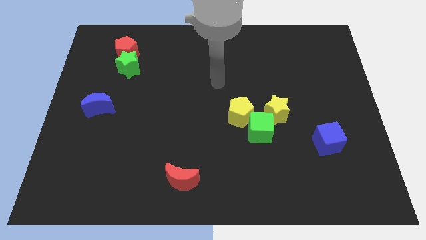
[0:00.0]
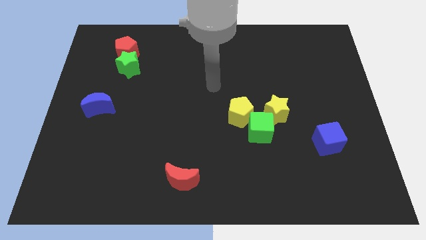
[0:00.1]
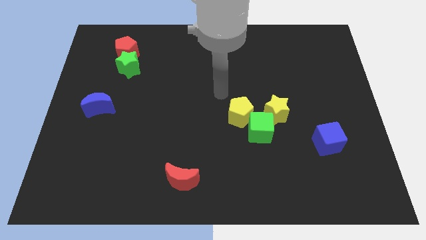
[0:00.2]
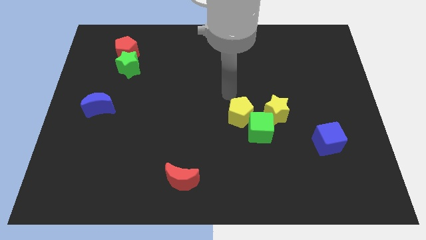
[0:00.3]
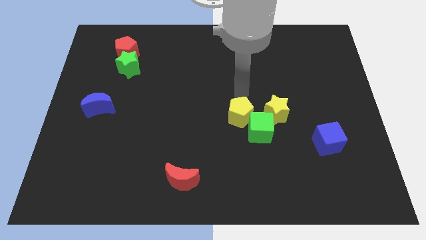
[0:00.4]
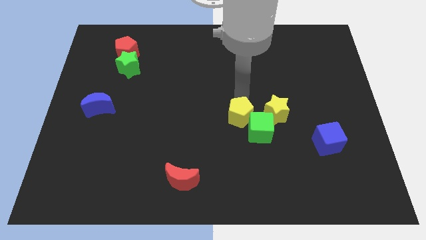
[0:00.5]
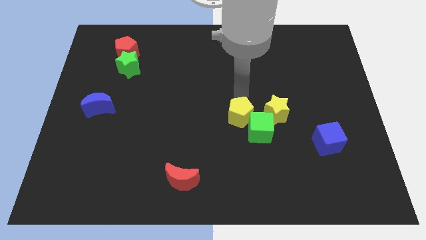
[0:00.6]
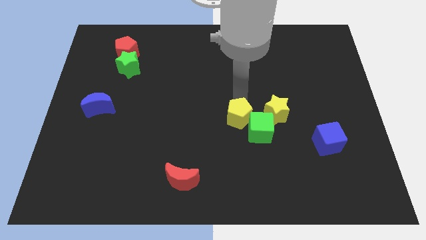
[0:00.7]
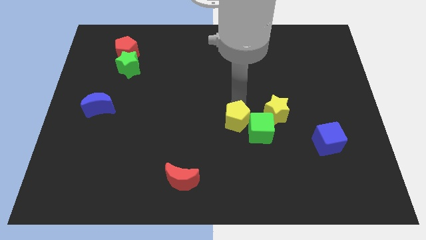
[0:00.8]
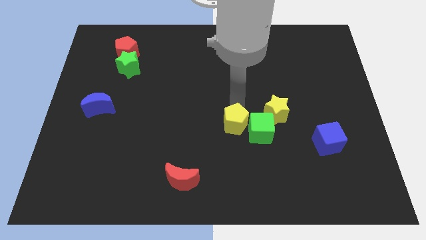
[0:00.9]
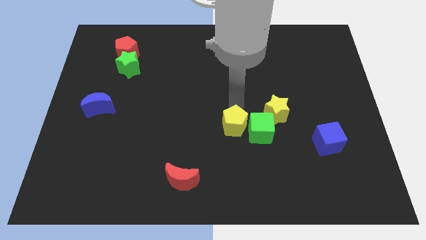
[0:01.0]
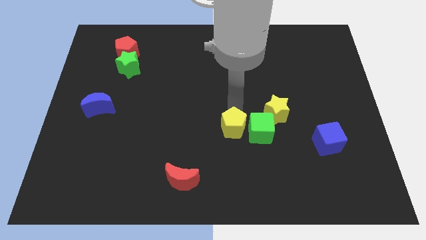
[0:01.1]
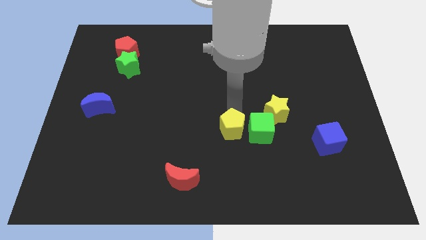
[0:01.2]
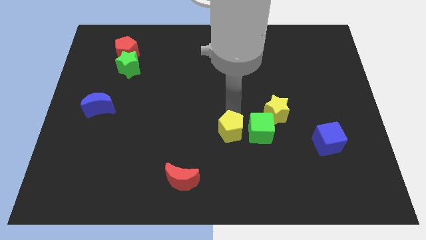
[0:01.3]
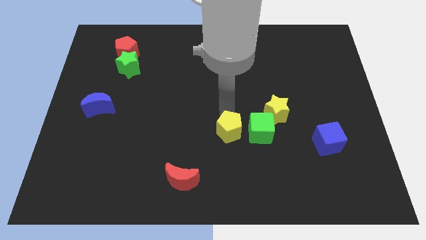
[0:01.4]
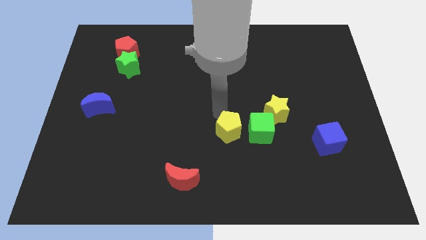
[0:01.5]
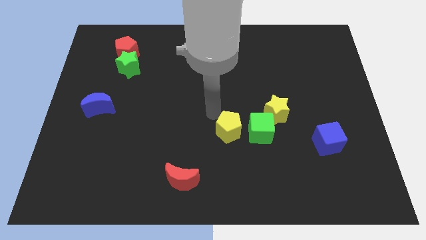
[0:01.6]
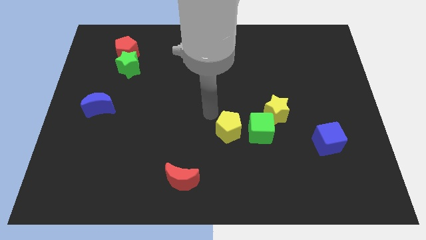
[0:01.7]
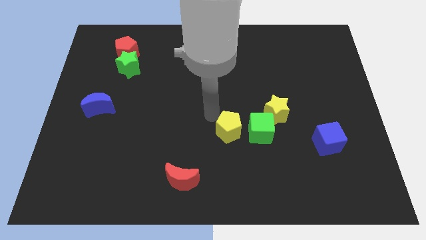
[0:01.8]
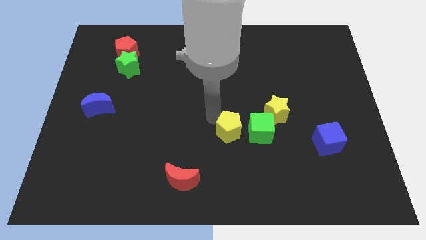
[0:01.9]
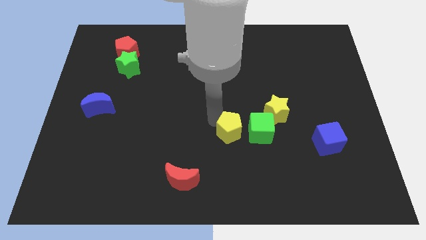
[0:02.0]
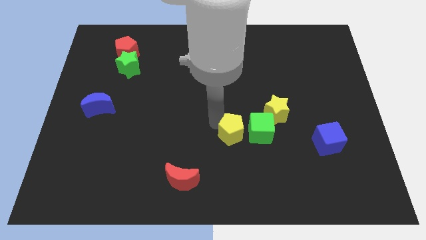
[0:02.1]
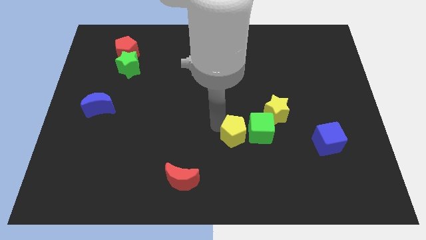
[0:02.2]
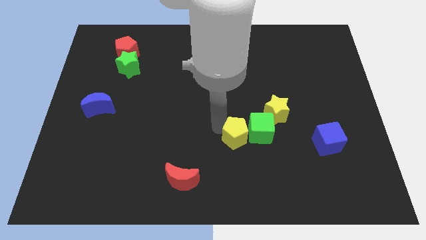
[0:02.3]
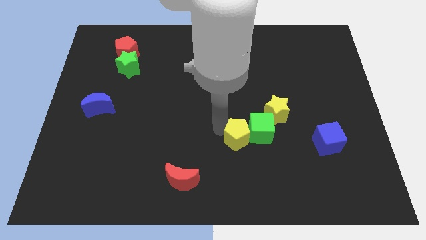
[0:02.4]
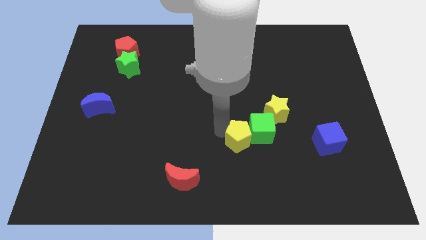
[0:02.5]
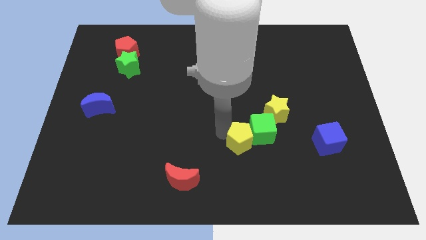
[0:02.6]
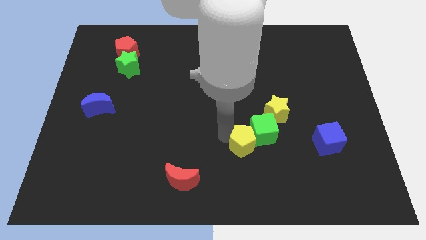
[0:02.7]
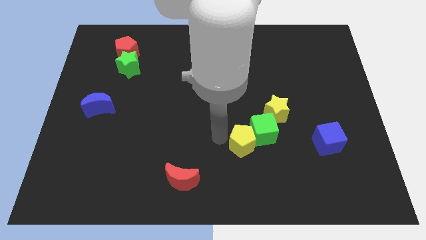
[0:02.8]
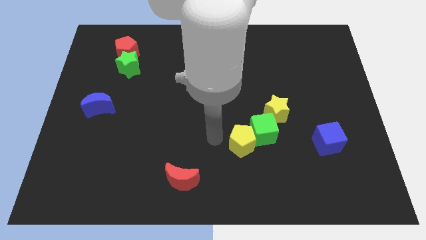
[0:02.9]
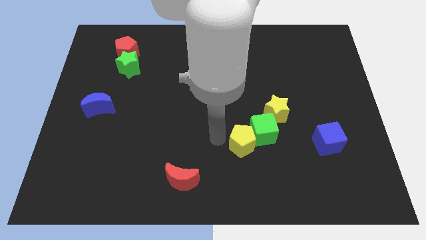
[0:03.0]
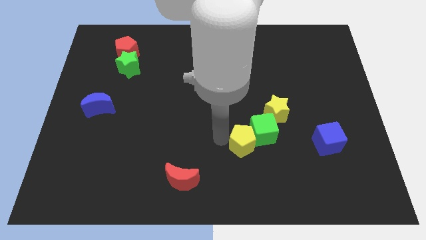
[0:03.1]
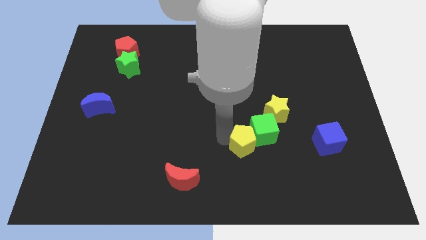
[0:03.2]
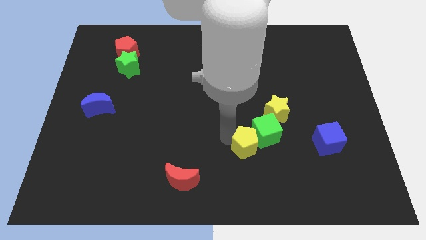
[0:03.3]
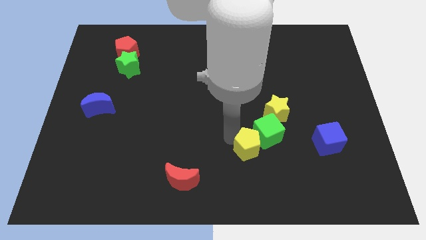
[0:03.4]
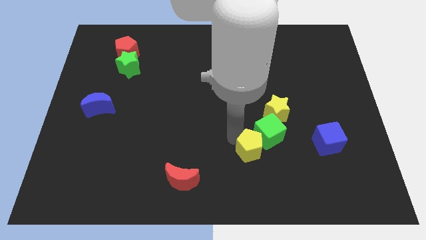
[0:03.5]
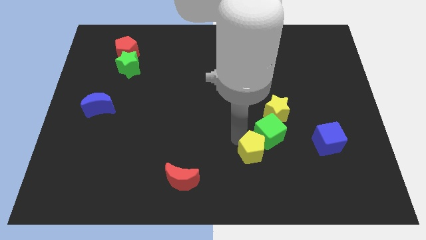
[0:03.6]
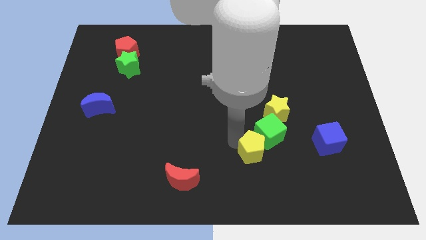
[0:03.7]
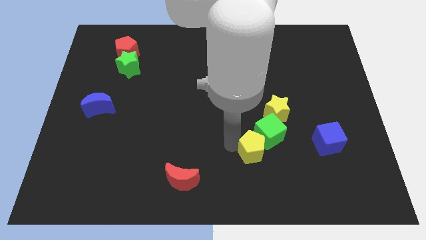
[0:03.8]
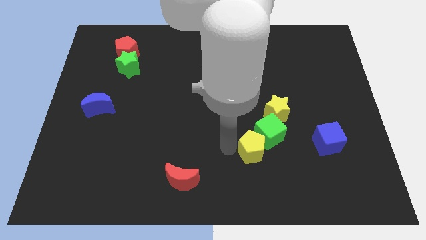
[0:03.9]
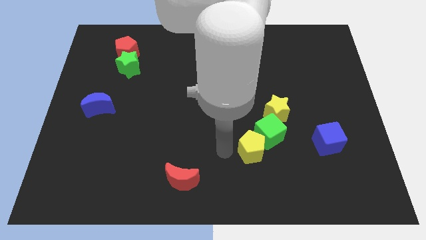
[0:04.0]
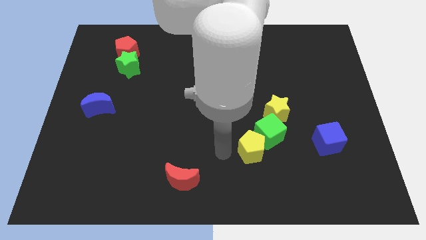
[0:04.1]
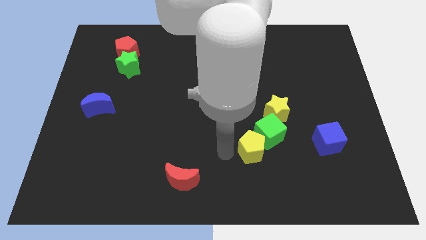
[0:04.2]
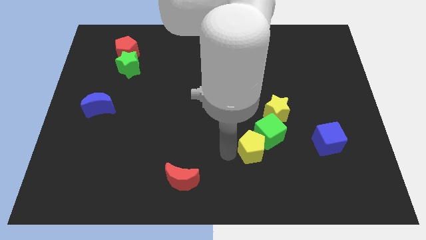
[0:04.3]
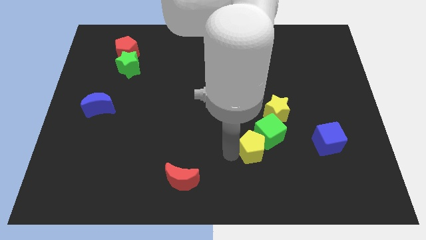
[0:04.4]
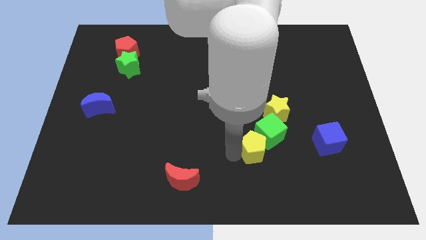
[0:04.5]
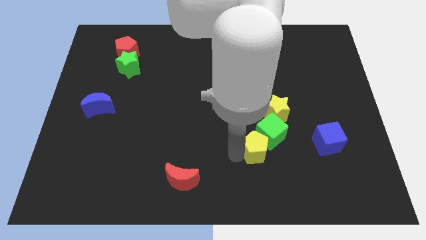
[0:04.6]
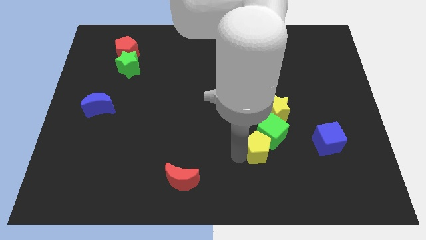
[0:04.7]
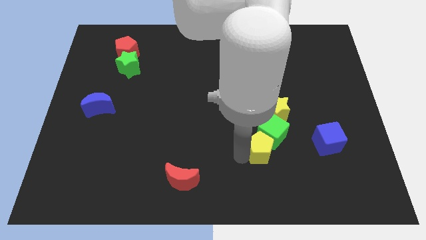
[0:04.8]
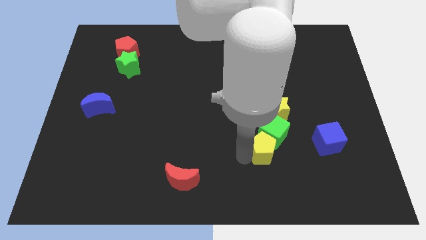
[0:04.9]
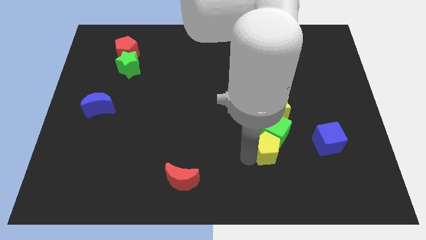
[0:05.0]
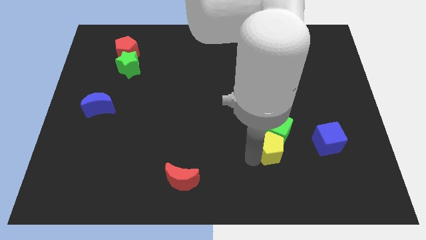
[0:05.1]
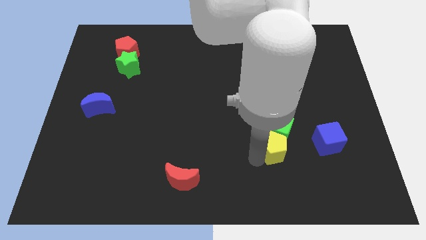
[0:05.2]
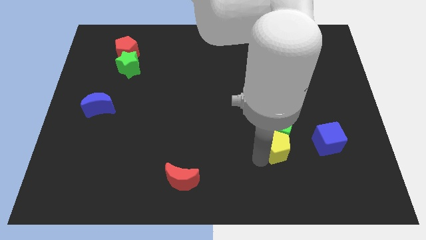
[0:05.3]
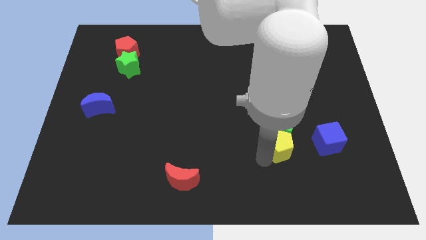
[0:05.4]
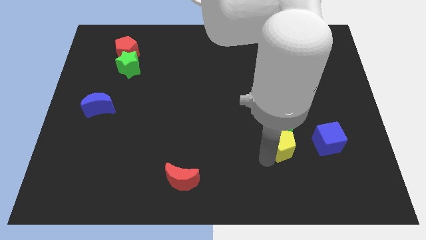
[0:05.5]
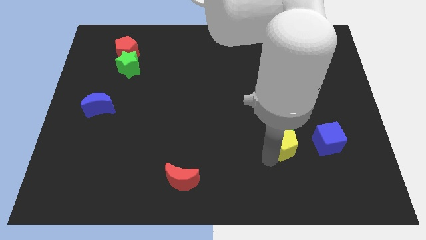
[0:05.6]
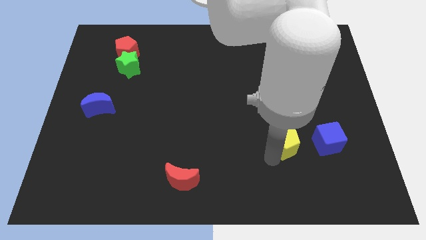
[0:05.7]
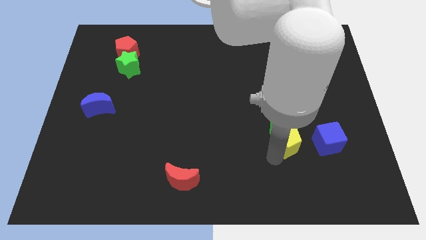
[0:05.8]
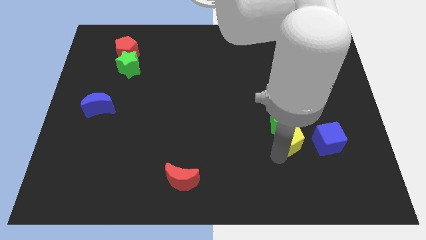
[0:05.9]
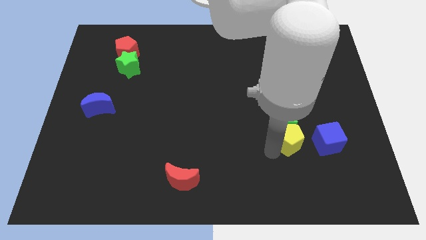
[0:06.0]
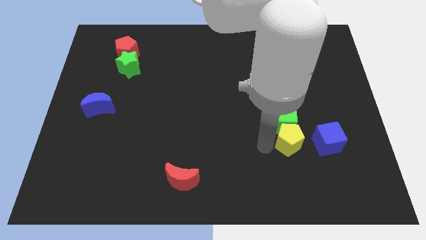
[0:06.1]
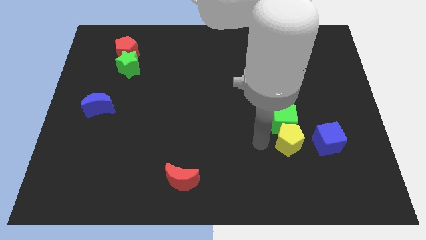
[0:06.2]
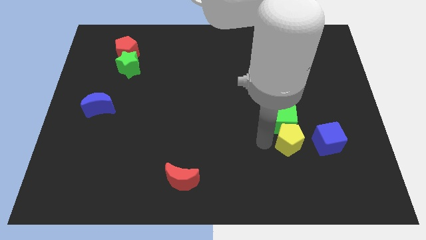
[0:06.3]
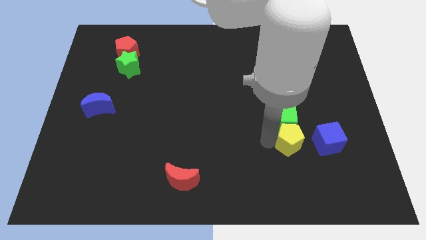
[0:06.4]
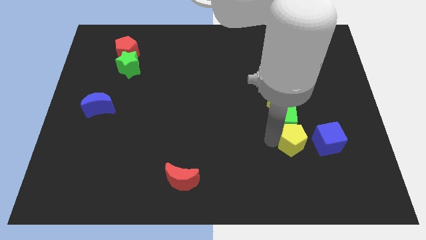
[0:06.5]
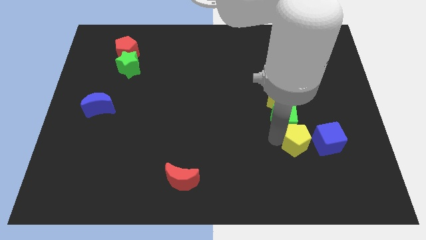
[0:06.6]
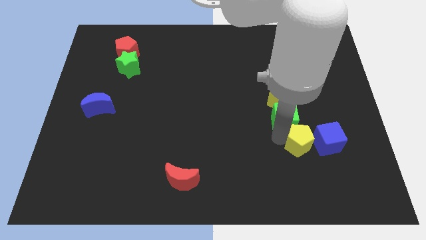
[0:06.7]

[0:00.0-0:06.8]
put the yellow pentagon next to the blue cube

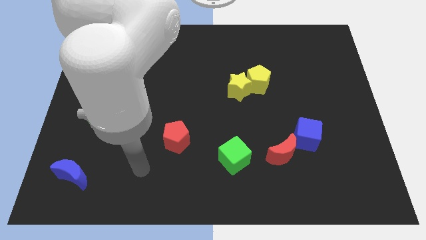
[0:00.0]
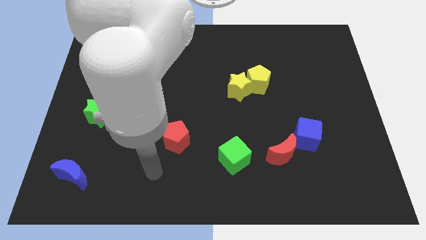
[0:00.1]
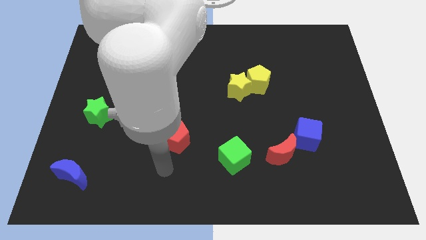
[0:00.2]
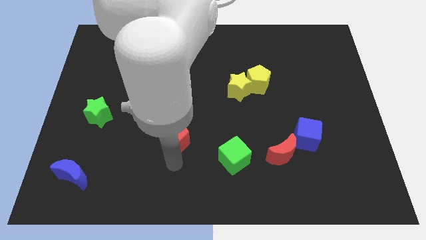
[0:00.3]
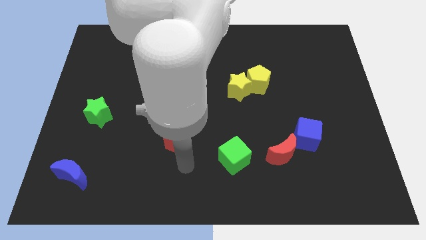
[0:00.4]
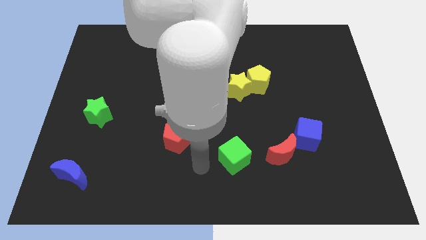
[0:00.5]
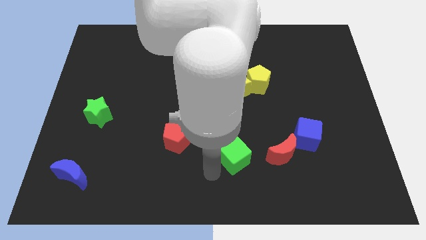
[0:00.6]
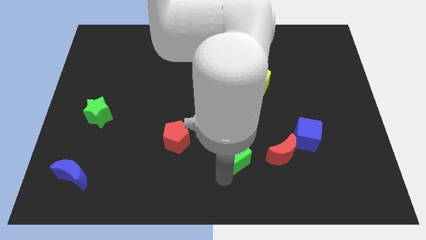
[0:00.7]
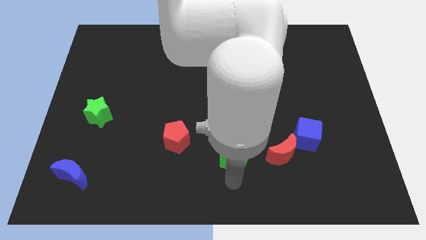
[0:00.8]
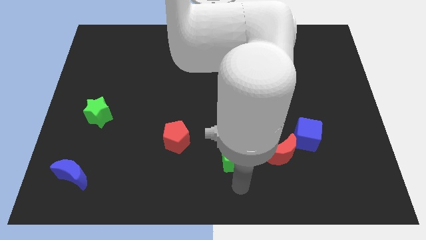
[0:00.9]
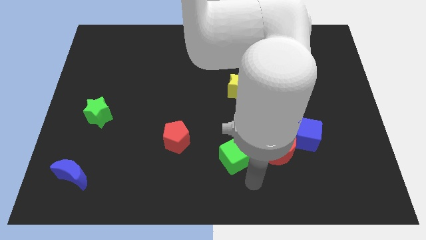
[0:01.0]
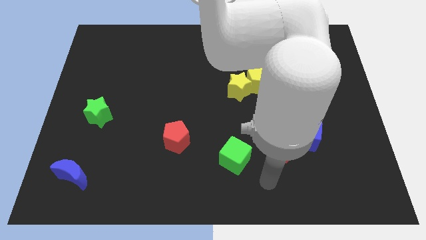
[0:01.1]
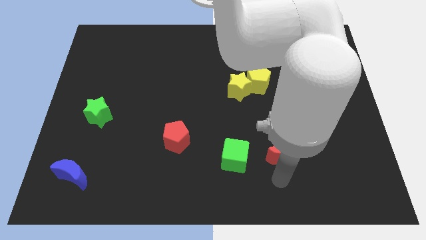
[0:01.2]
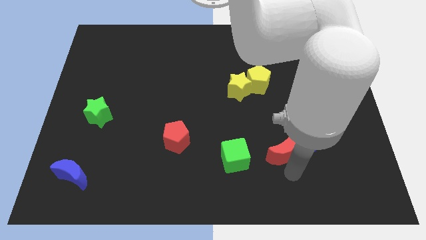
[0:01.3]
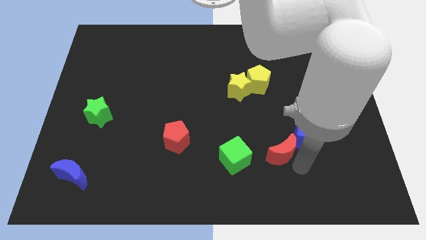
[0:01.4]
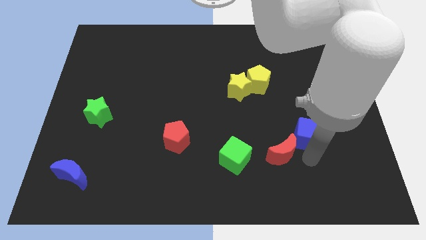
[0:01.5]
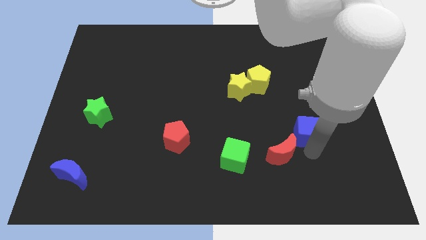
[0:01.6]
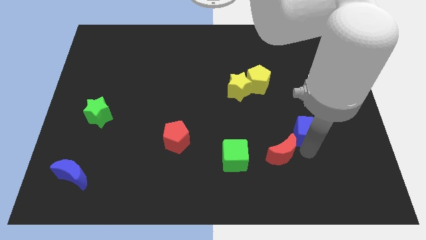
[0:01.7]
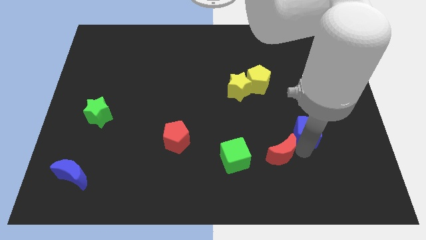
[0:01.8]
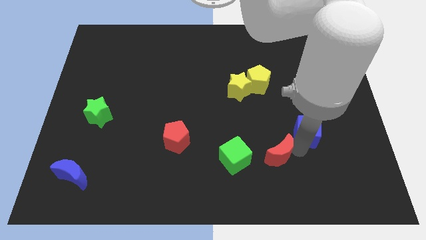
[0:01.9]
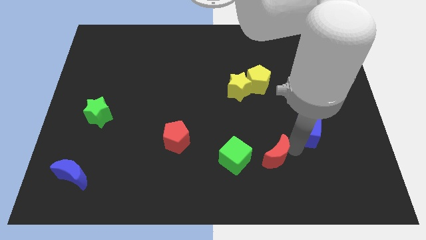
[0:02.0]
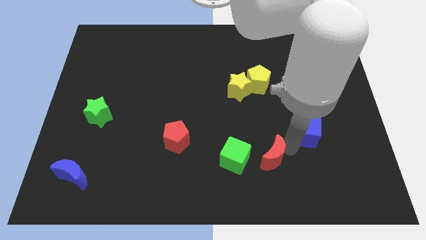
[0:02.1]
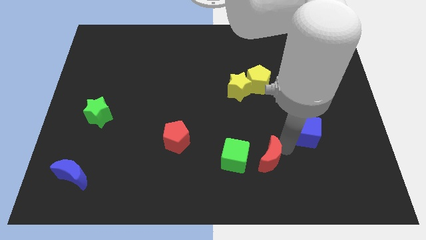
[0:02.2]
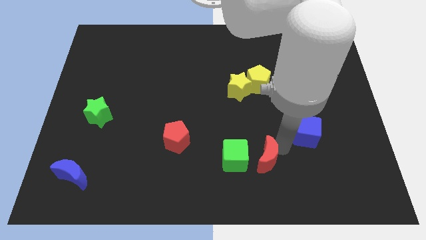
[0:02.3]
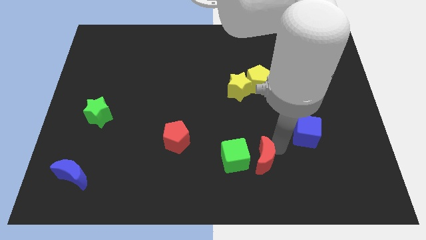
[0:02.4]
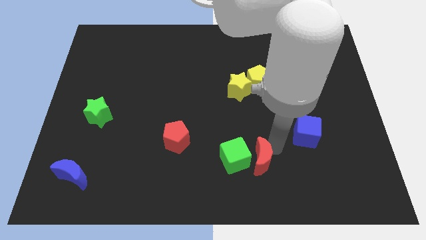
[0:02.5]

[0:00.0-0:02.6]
slide the red moon to the green cube
